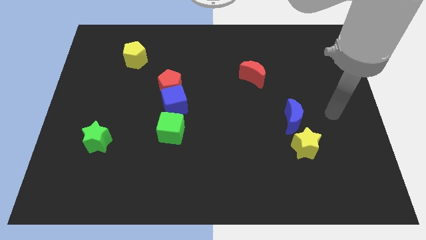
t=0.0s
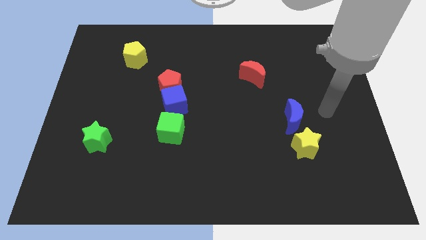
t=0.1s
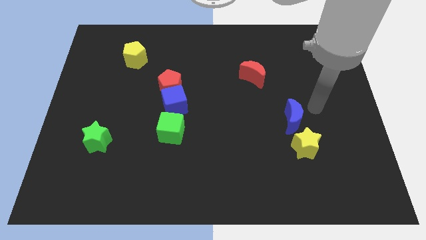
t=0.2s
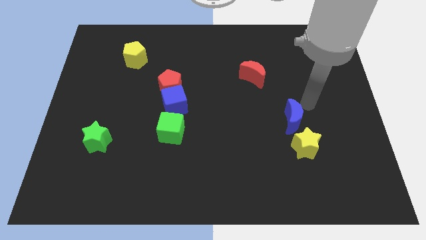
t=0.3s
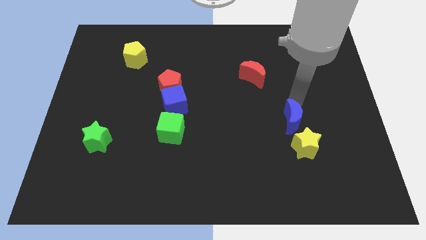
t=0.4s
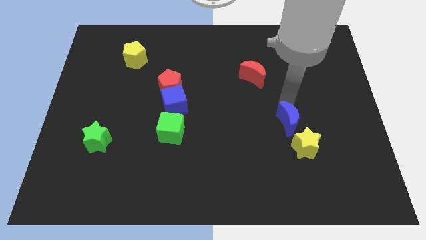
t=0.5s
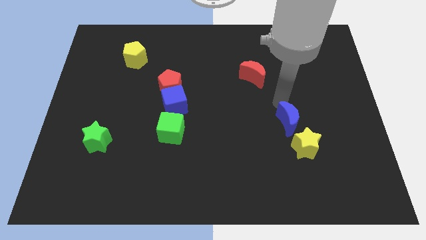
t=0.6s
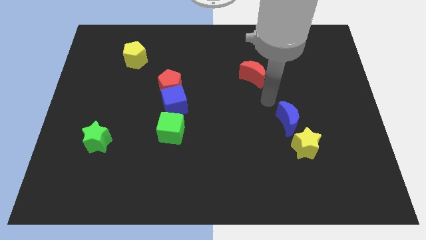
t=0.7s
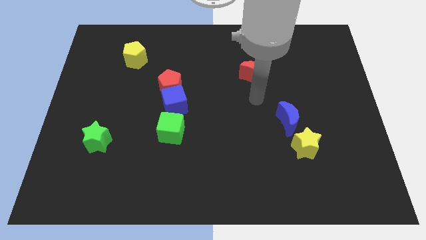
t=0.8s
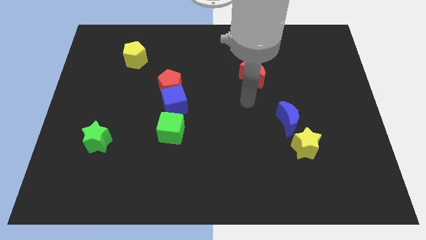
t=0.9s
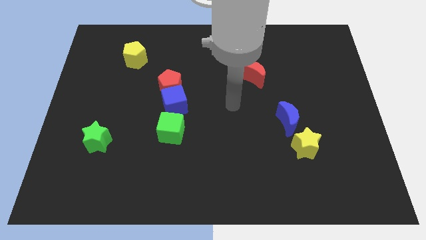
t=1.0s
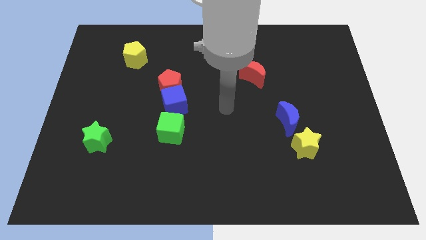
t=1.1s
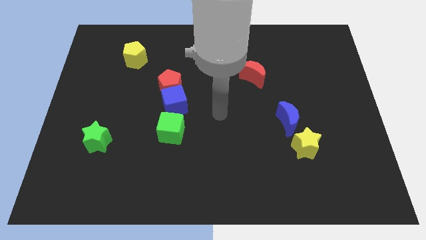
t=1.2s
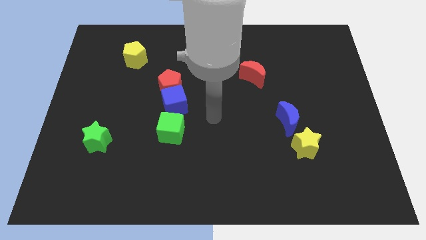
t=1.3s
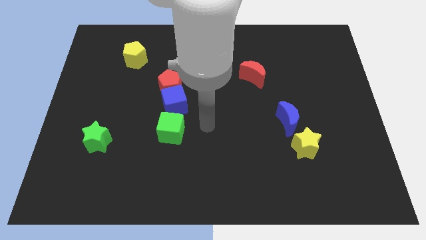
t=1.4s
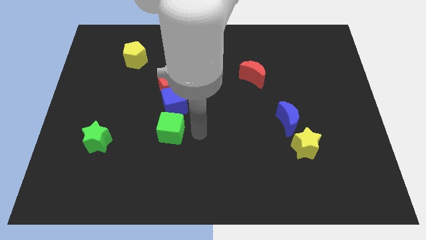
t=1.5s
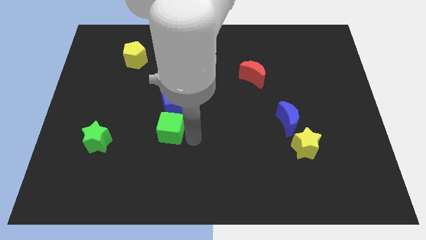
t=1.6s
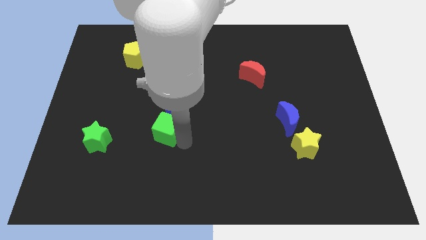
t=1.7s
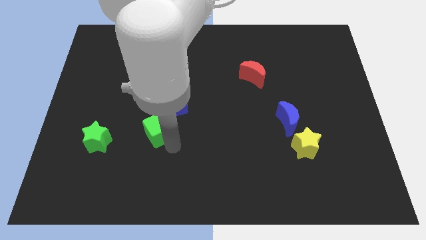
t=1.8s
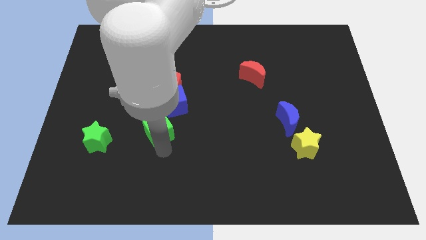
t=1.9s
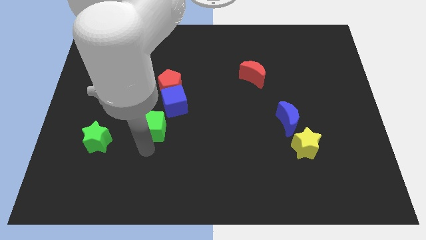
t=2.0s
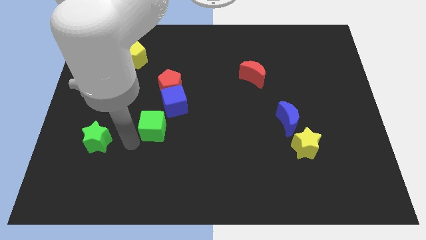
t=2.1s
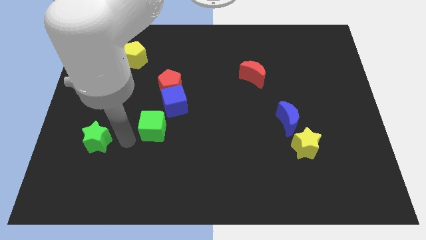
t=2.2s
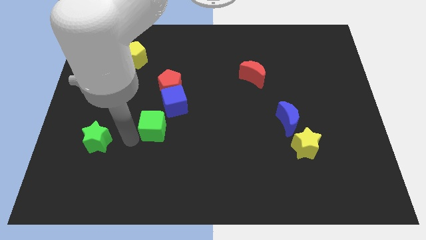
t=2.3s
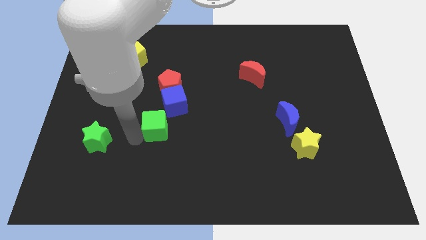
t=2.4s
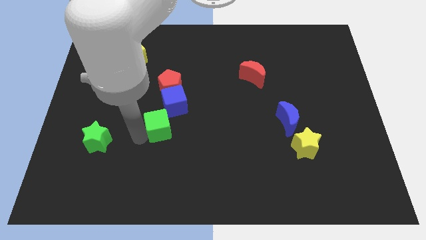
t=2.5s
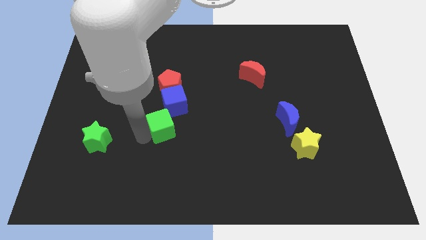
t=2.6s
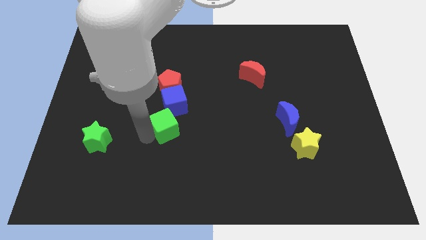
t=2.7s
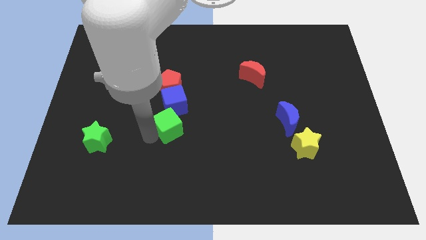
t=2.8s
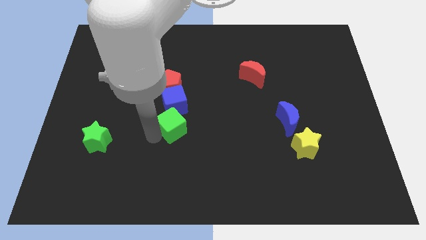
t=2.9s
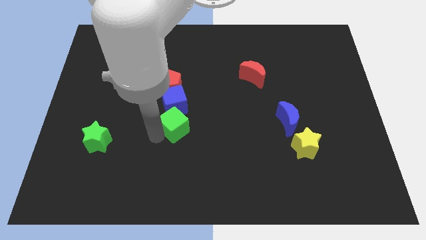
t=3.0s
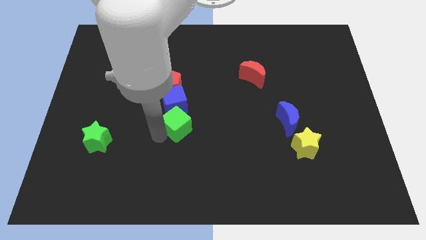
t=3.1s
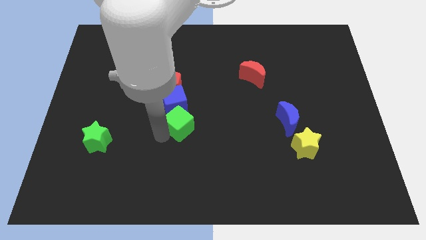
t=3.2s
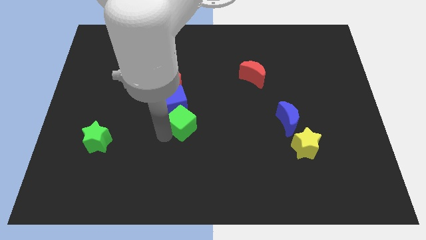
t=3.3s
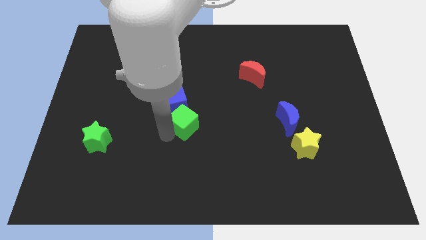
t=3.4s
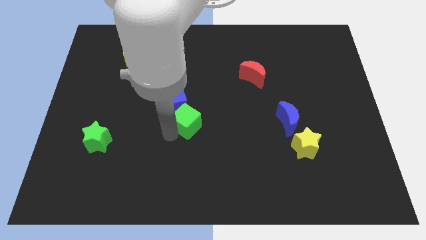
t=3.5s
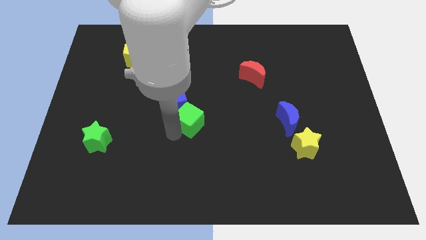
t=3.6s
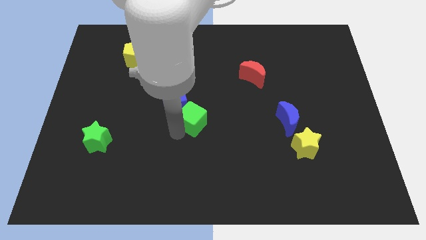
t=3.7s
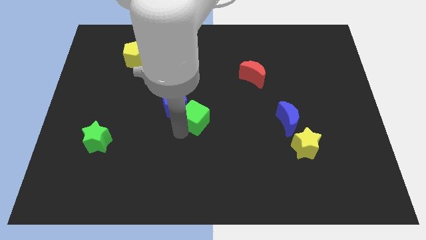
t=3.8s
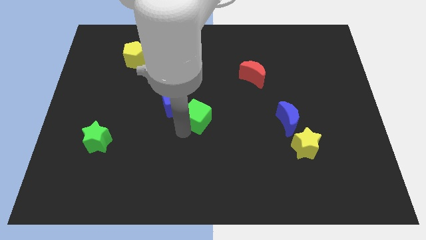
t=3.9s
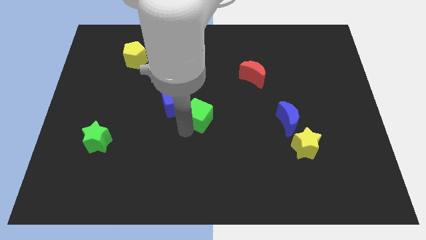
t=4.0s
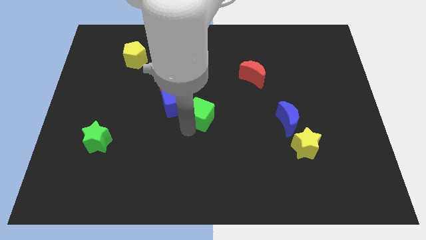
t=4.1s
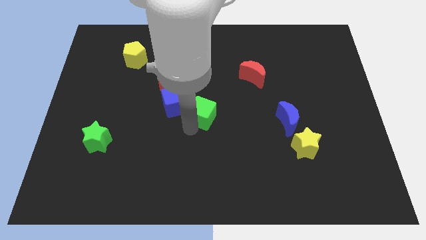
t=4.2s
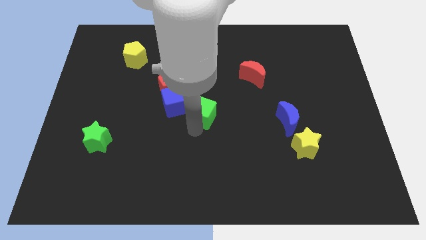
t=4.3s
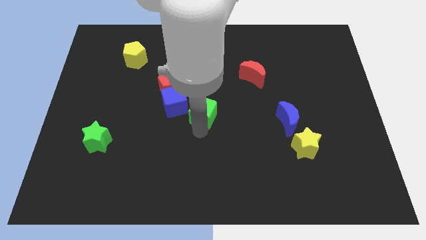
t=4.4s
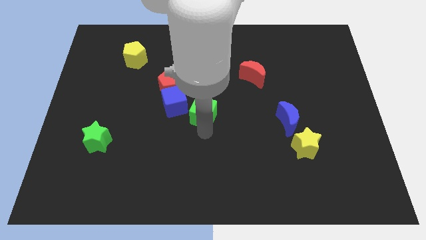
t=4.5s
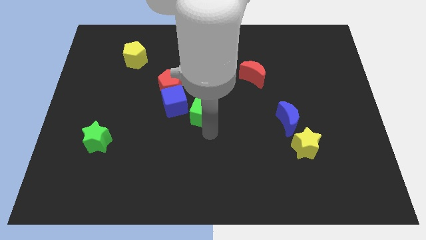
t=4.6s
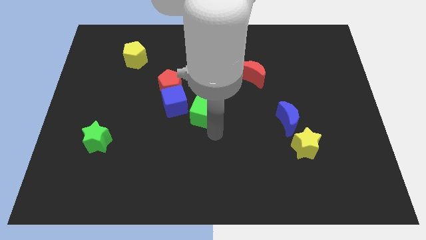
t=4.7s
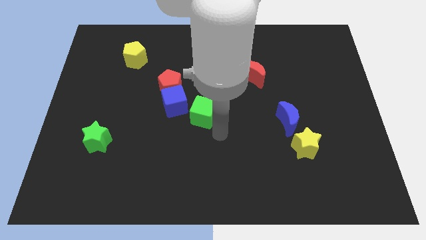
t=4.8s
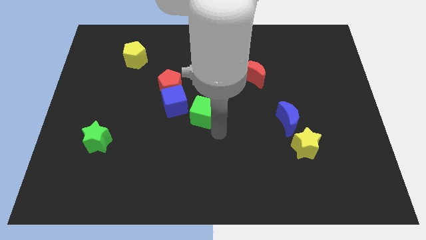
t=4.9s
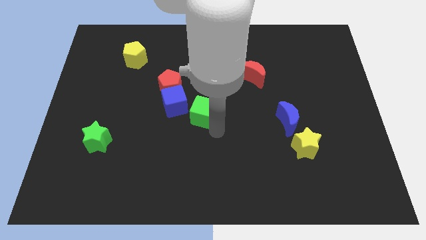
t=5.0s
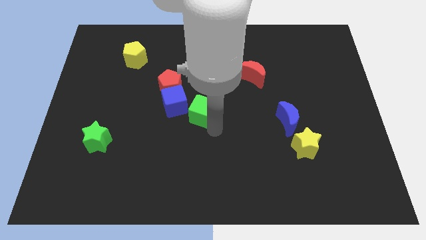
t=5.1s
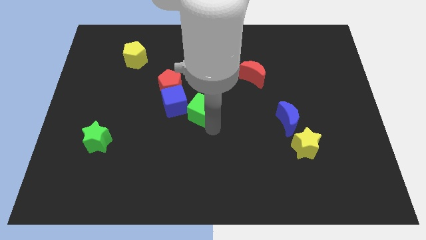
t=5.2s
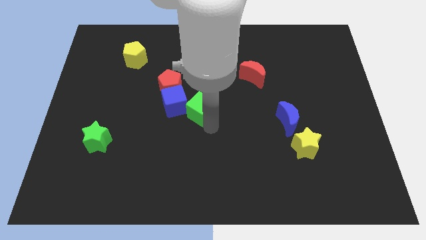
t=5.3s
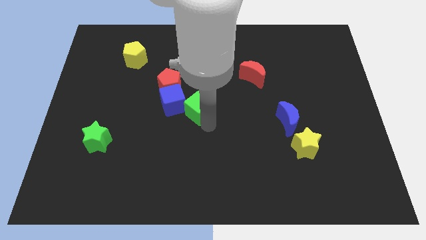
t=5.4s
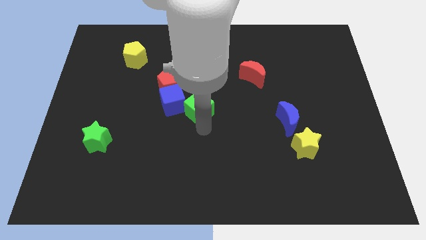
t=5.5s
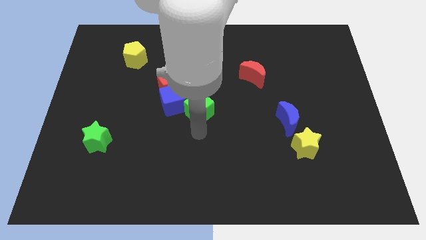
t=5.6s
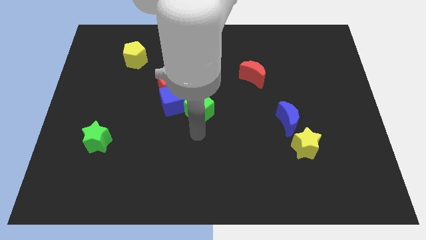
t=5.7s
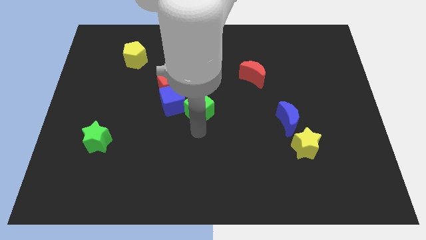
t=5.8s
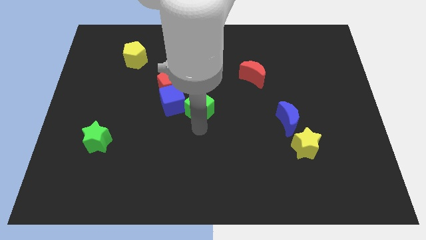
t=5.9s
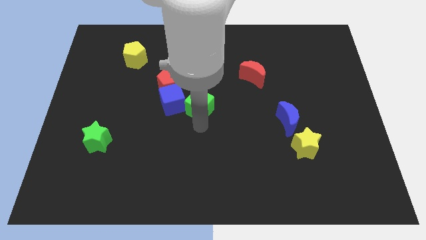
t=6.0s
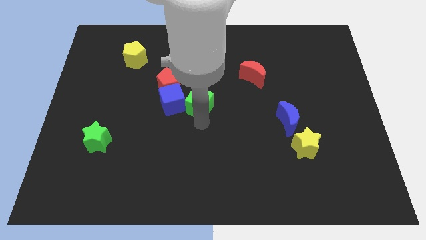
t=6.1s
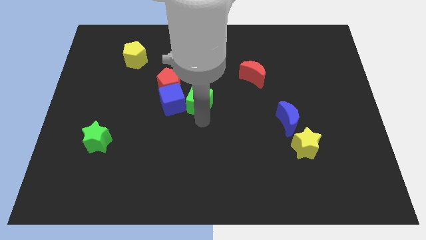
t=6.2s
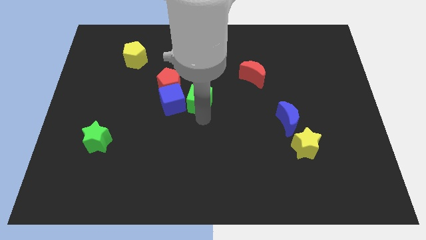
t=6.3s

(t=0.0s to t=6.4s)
slightly push the green cube upwards

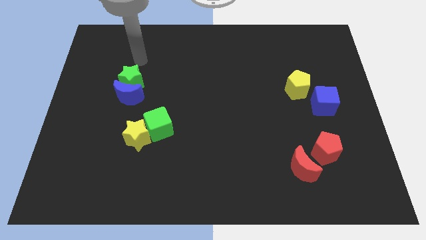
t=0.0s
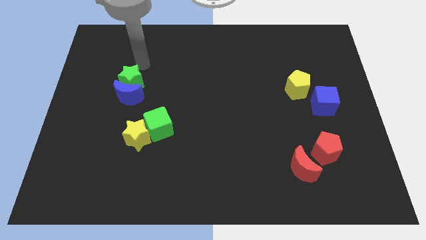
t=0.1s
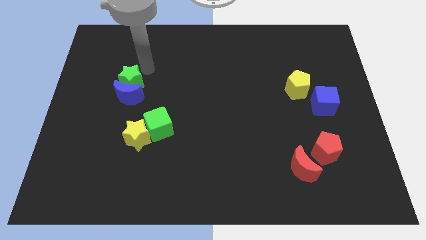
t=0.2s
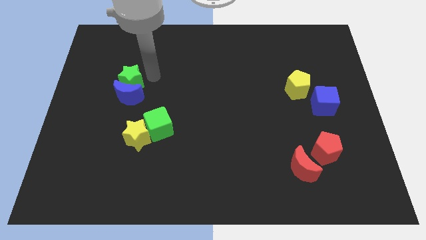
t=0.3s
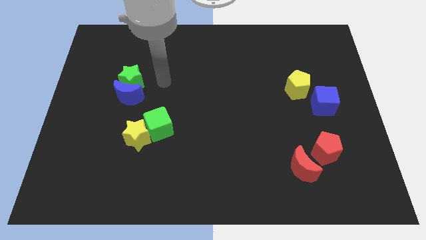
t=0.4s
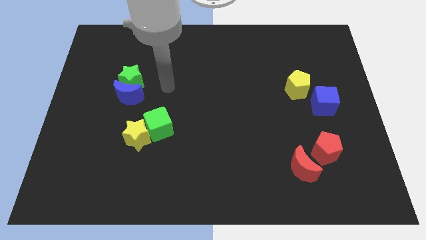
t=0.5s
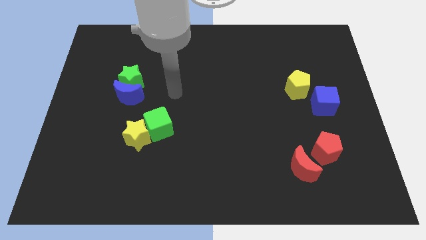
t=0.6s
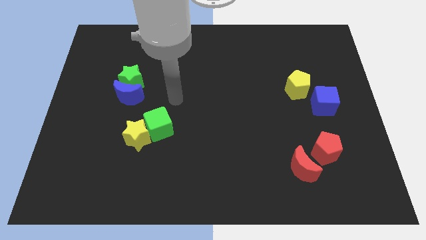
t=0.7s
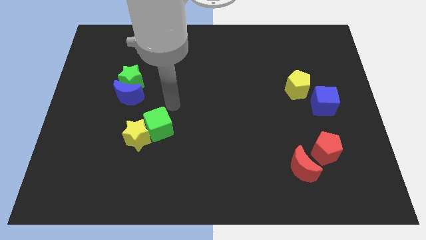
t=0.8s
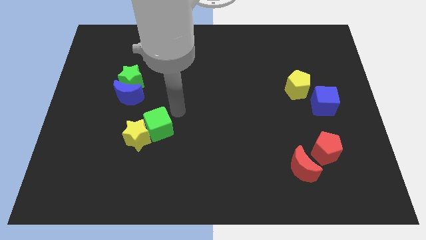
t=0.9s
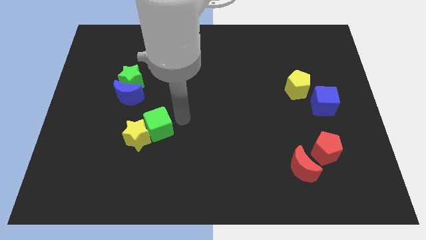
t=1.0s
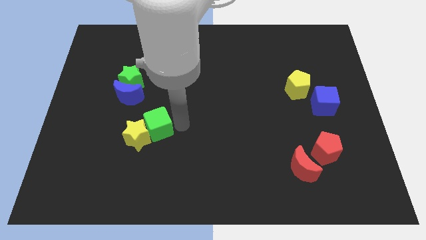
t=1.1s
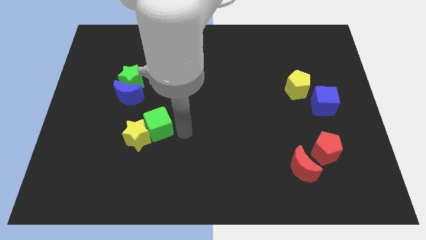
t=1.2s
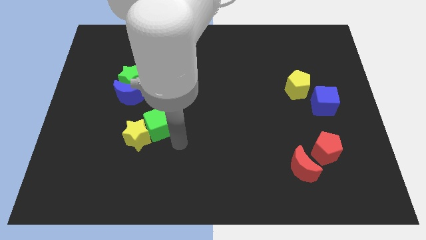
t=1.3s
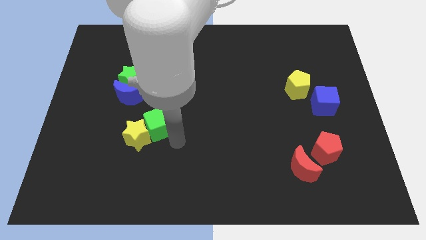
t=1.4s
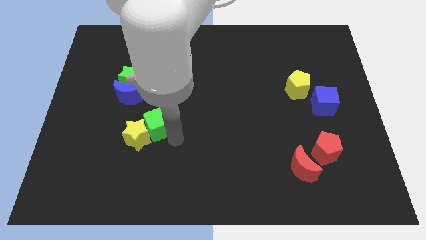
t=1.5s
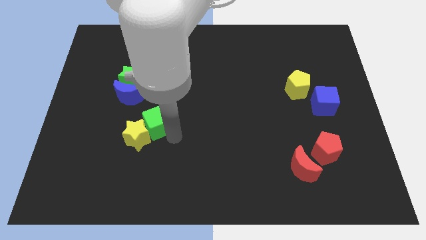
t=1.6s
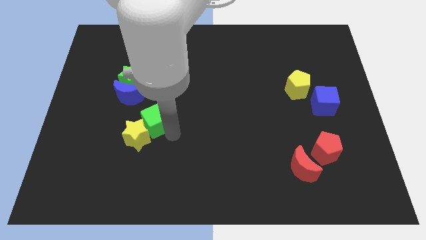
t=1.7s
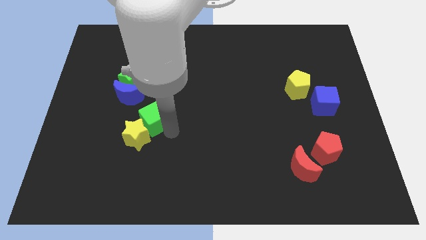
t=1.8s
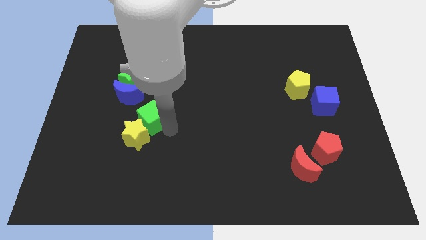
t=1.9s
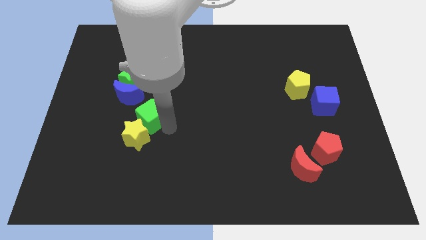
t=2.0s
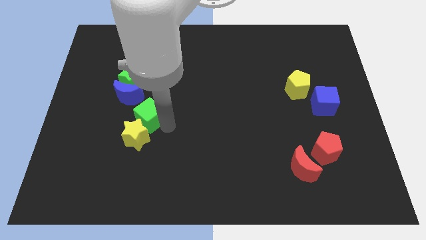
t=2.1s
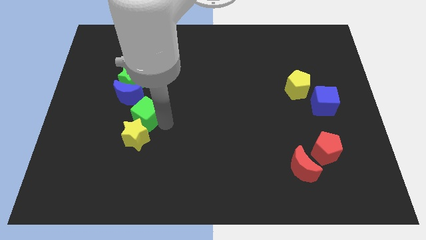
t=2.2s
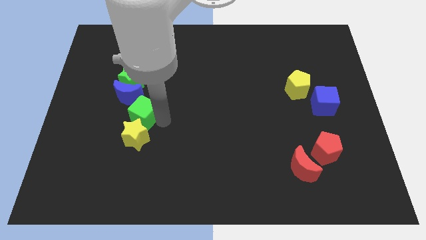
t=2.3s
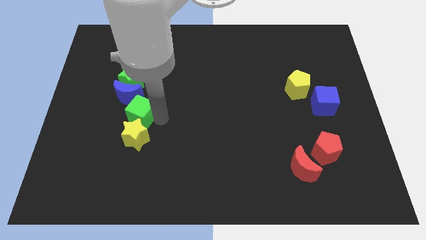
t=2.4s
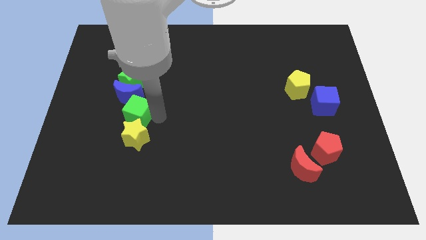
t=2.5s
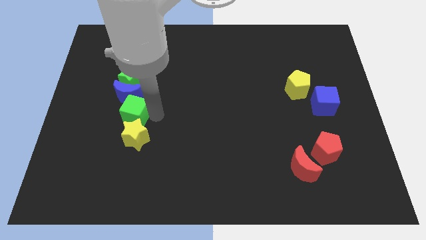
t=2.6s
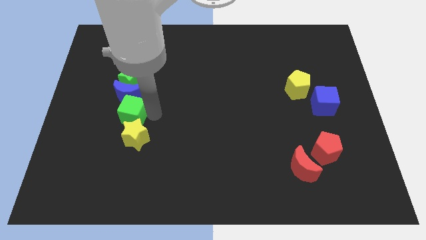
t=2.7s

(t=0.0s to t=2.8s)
push the green cube upwards and to the left diagonally slightly
